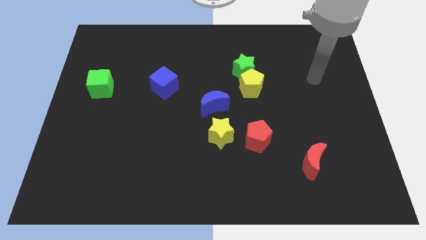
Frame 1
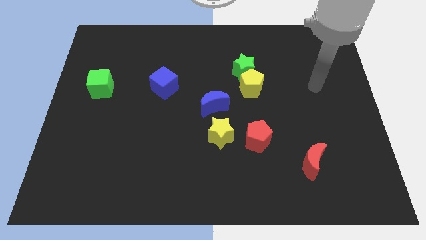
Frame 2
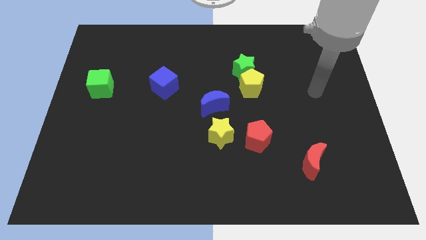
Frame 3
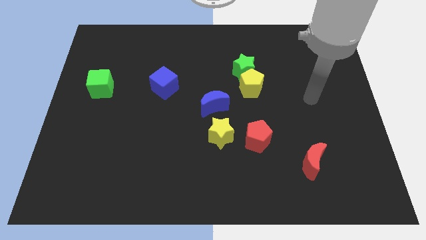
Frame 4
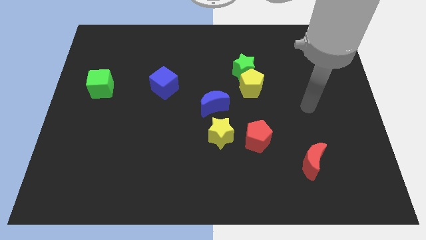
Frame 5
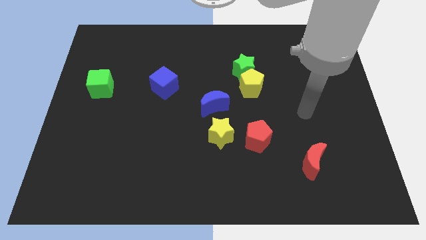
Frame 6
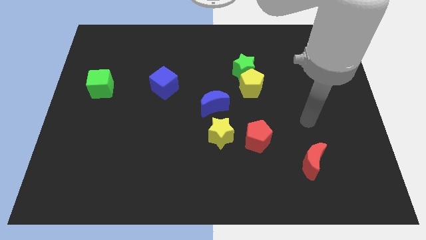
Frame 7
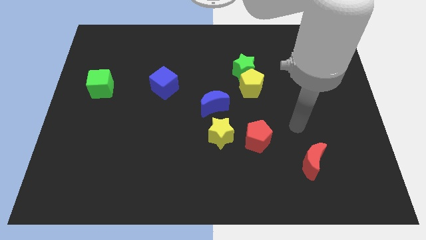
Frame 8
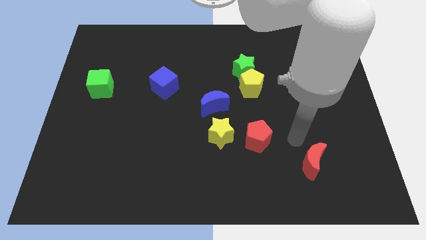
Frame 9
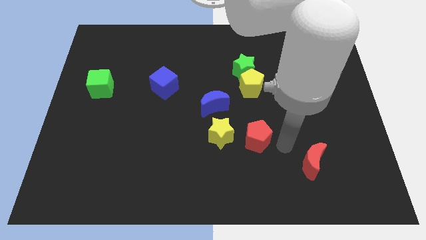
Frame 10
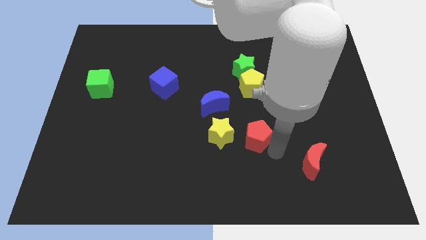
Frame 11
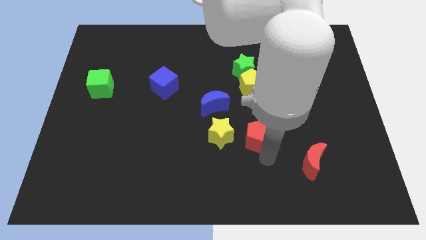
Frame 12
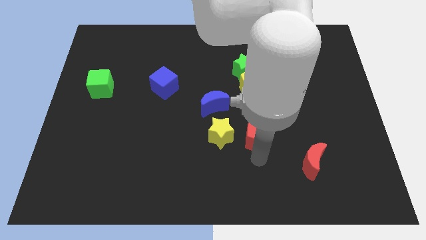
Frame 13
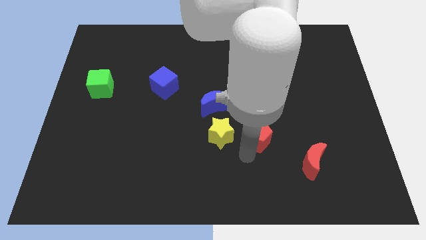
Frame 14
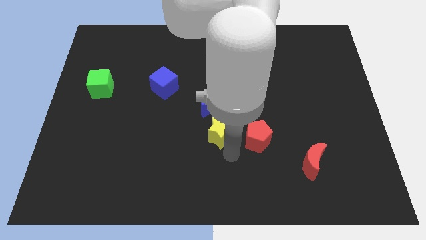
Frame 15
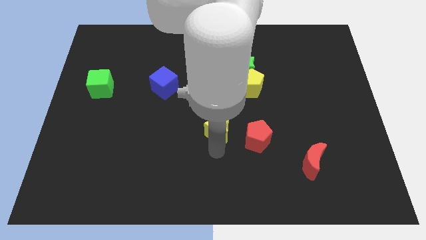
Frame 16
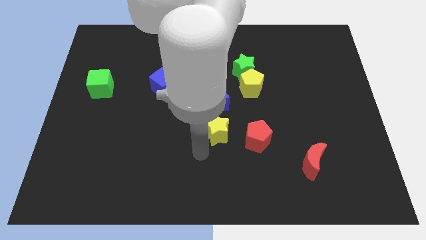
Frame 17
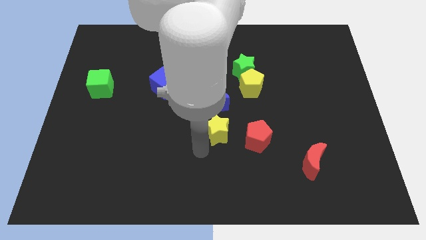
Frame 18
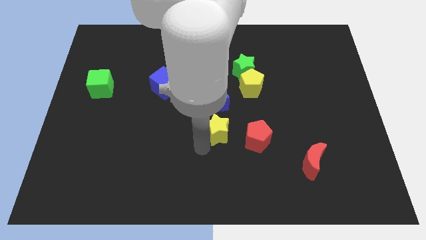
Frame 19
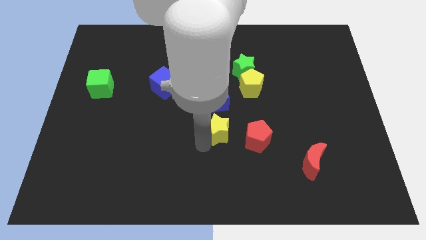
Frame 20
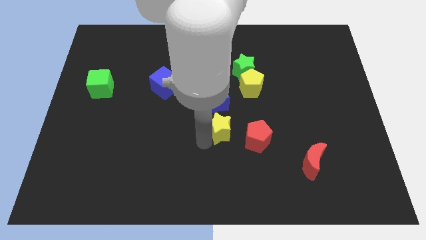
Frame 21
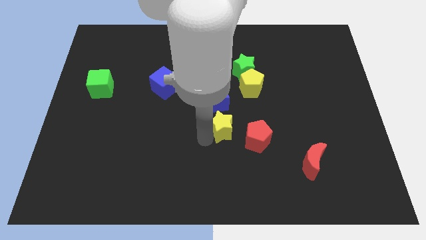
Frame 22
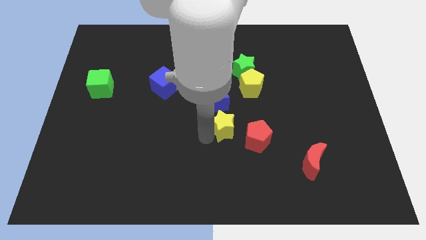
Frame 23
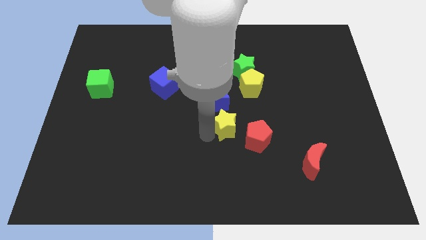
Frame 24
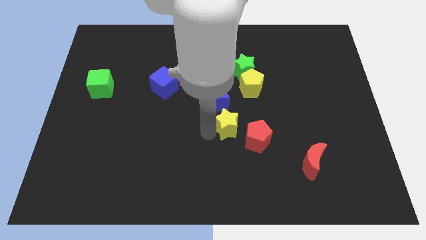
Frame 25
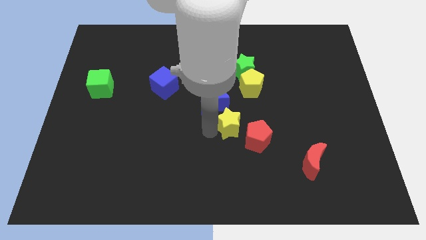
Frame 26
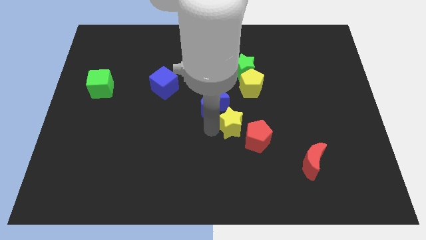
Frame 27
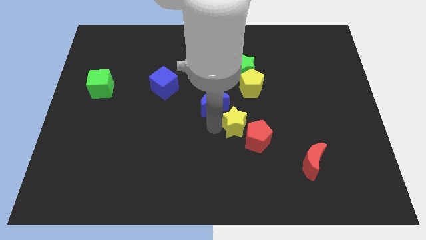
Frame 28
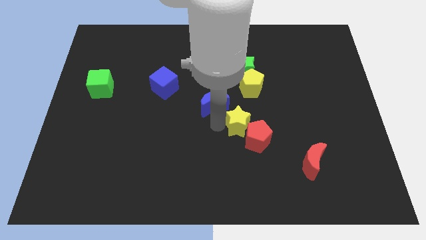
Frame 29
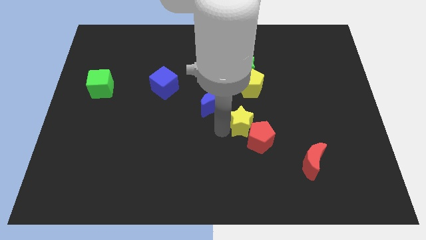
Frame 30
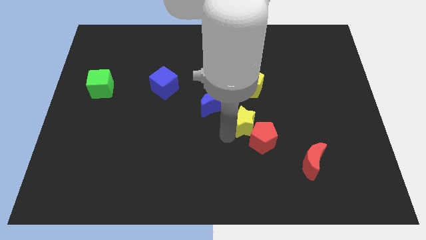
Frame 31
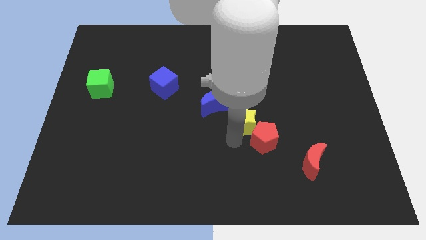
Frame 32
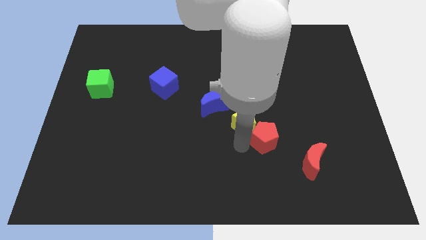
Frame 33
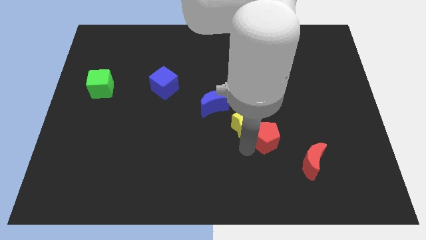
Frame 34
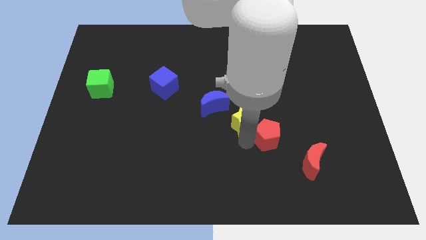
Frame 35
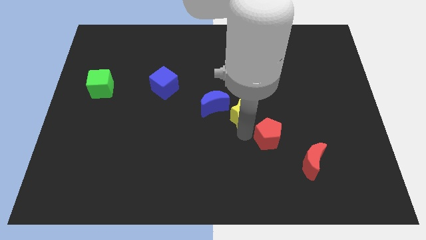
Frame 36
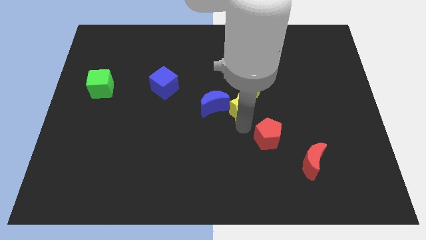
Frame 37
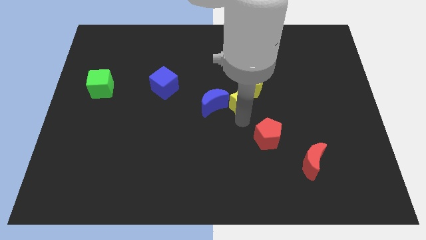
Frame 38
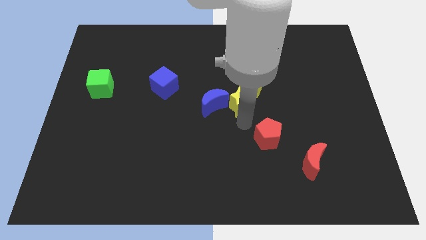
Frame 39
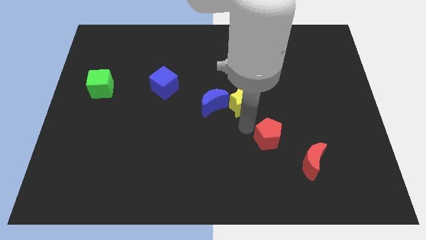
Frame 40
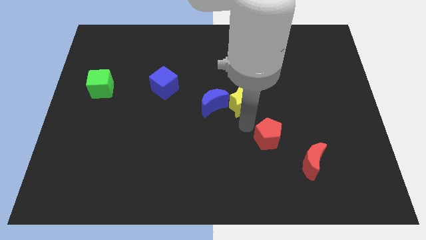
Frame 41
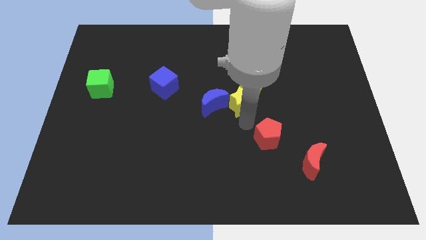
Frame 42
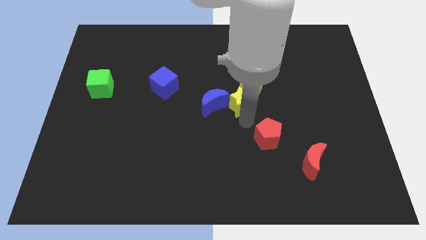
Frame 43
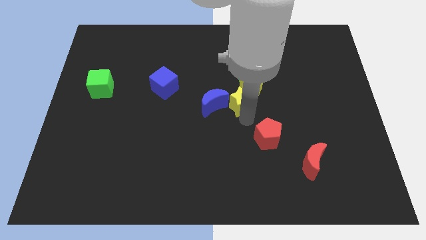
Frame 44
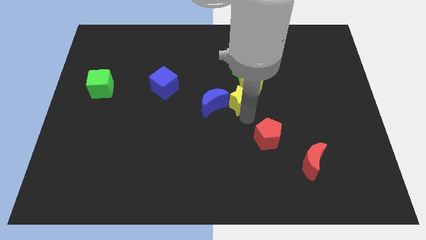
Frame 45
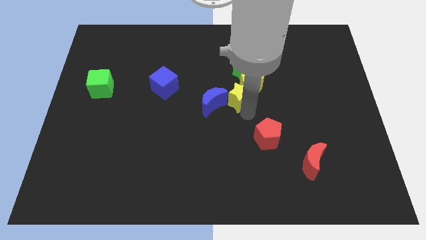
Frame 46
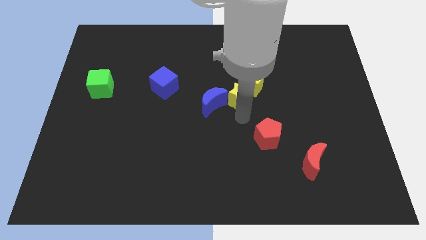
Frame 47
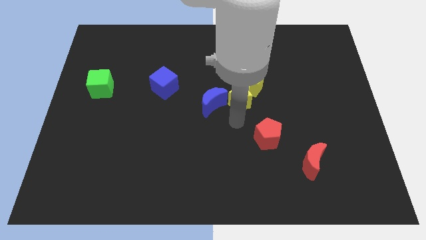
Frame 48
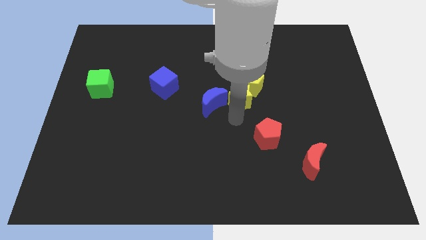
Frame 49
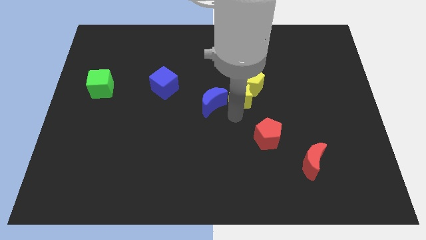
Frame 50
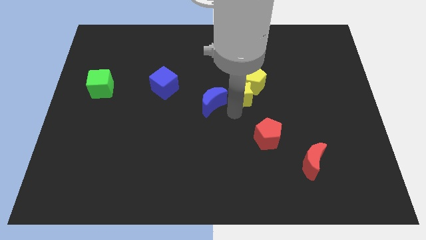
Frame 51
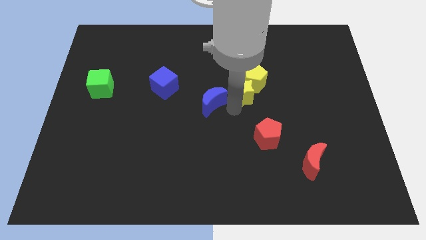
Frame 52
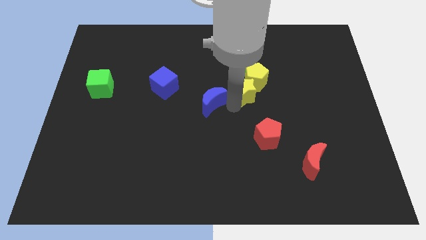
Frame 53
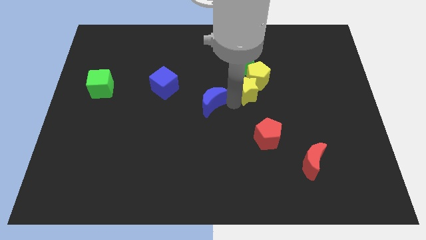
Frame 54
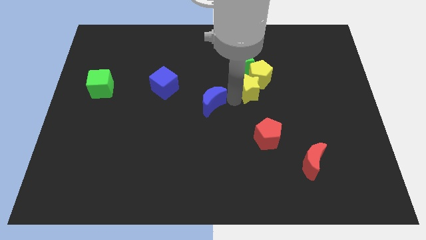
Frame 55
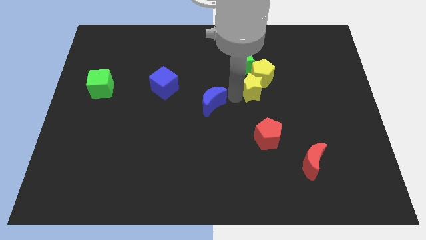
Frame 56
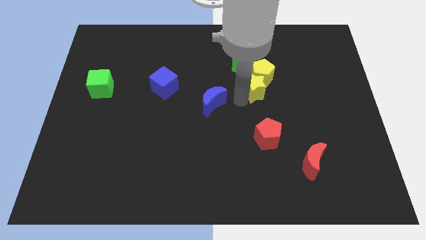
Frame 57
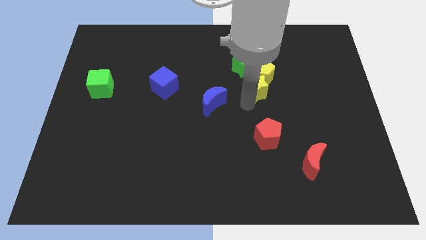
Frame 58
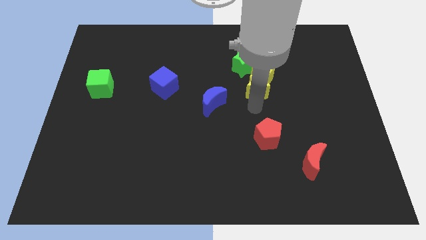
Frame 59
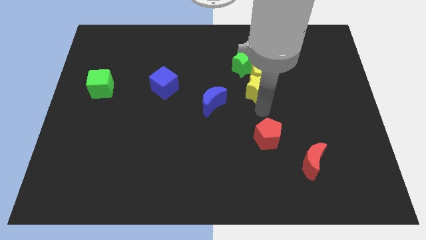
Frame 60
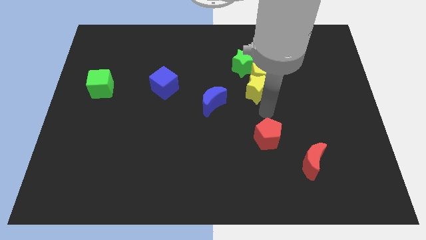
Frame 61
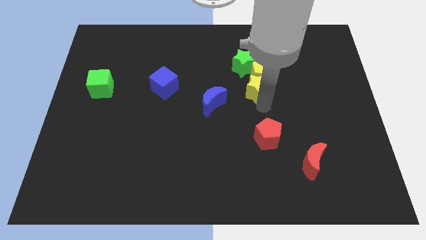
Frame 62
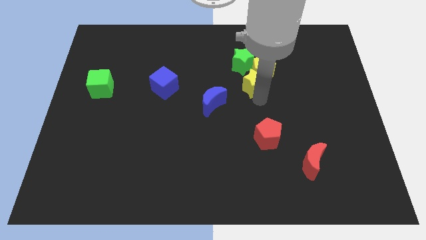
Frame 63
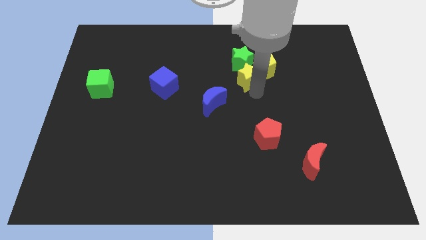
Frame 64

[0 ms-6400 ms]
move the yellow star towards the green star

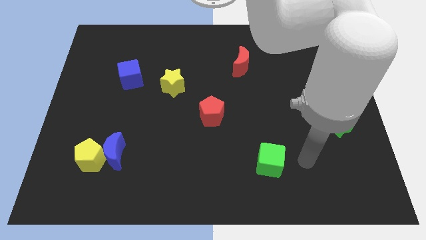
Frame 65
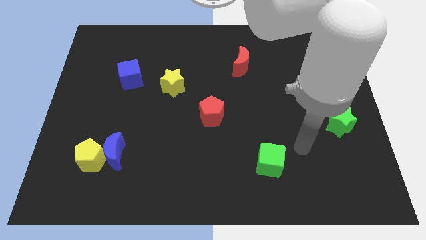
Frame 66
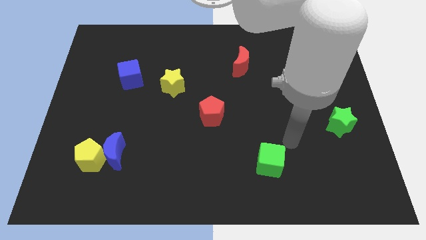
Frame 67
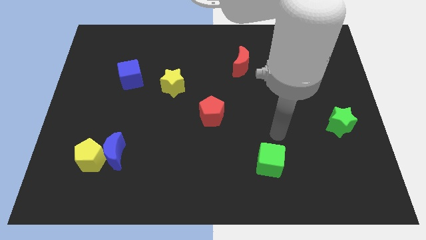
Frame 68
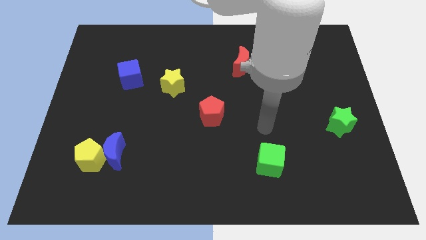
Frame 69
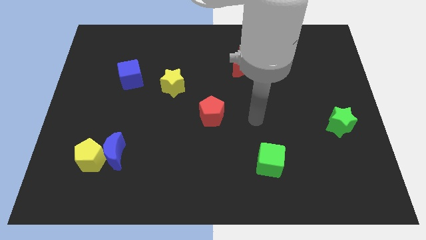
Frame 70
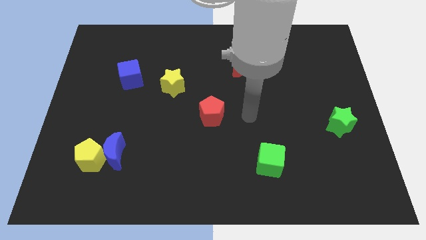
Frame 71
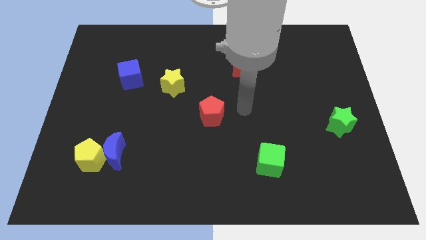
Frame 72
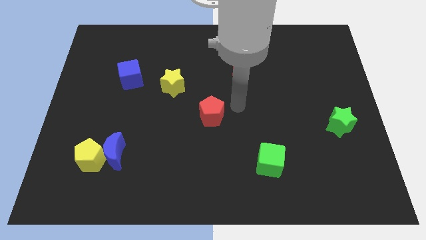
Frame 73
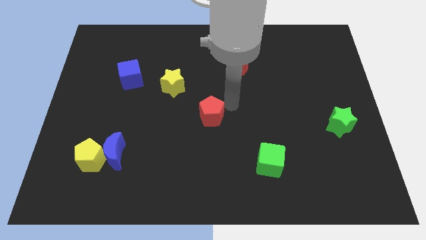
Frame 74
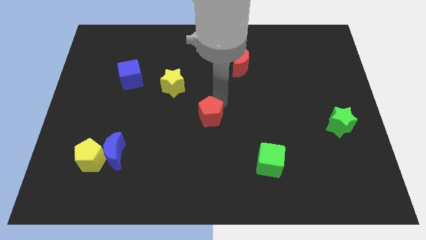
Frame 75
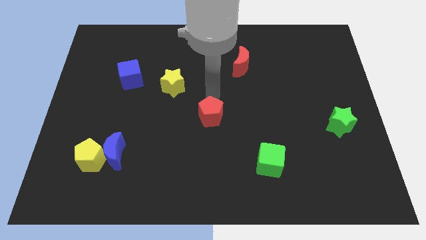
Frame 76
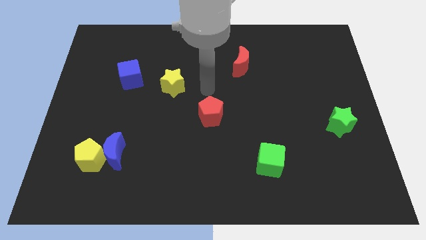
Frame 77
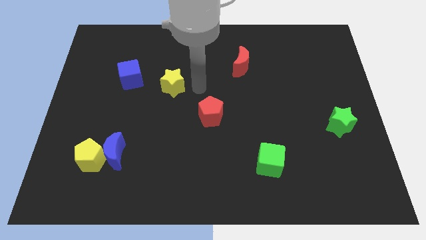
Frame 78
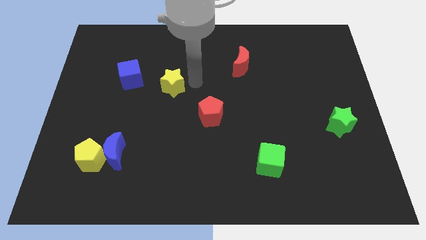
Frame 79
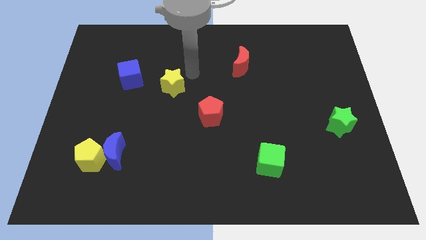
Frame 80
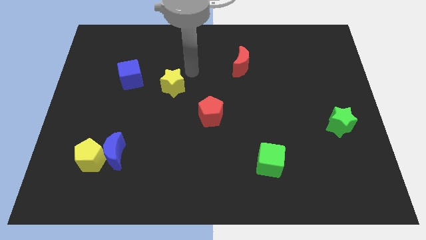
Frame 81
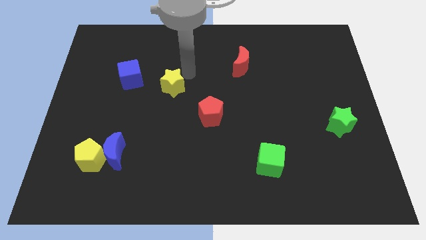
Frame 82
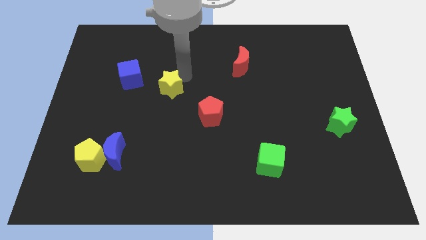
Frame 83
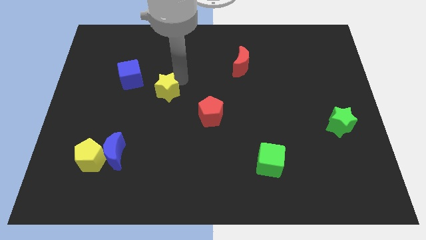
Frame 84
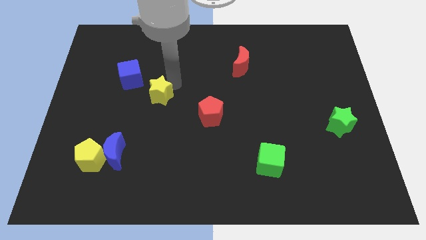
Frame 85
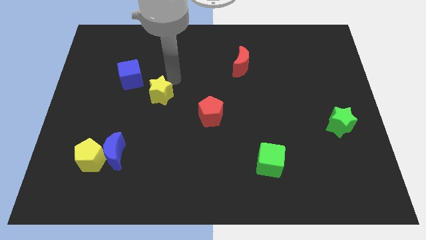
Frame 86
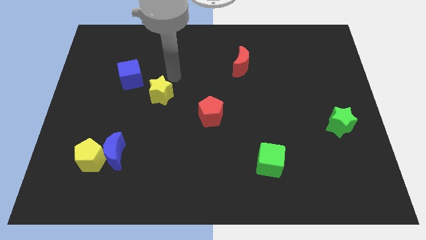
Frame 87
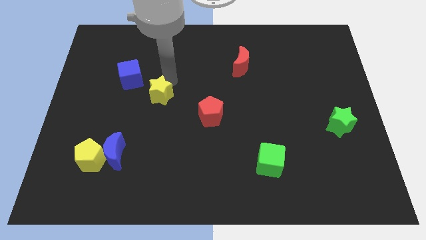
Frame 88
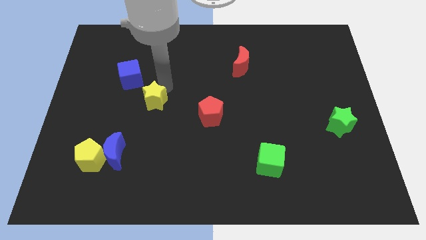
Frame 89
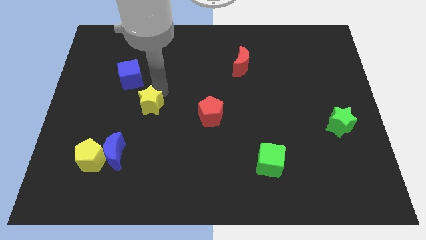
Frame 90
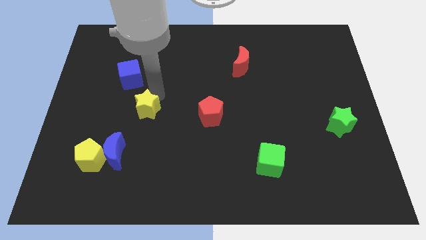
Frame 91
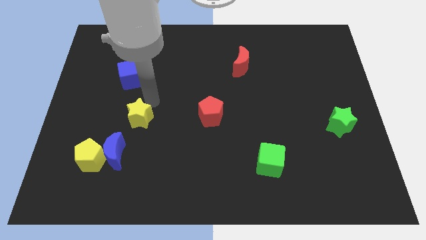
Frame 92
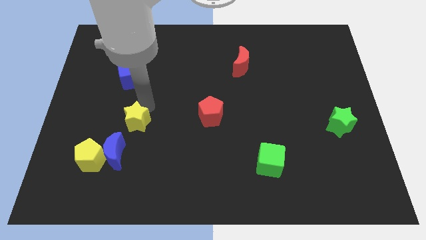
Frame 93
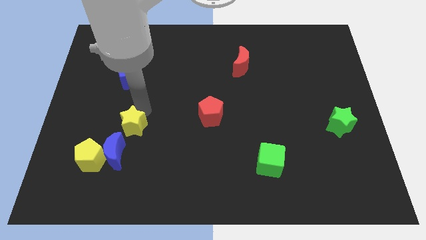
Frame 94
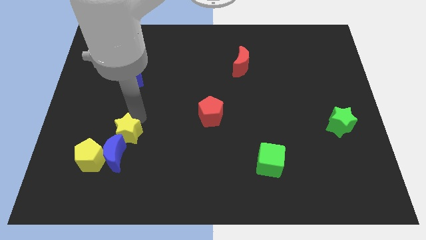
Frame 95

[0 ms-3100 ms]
push the yellow star to the blue moon
